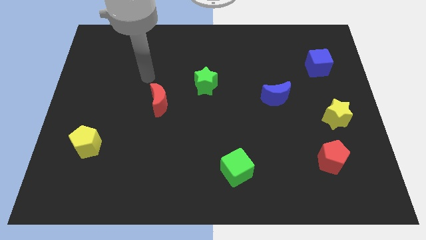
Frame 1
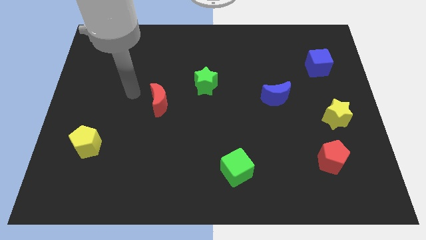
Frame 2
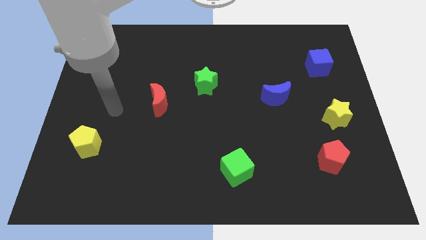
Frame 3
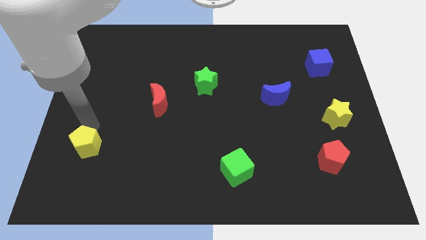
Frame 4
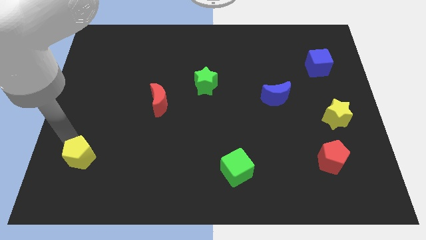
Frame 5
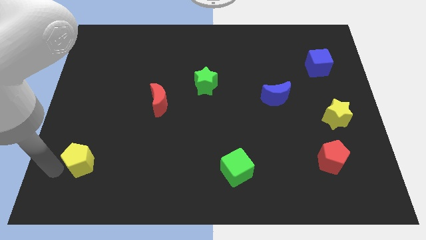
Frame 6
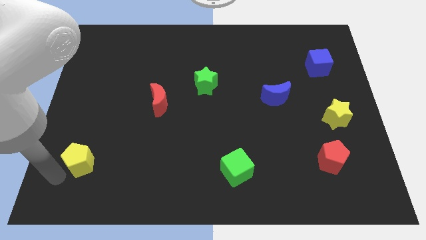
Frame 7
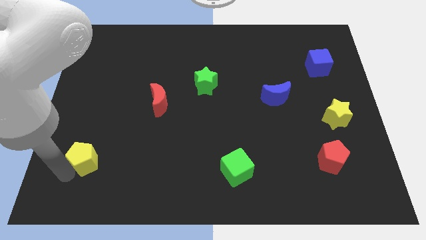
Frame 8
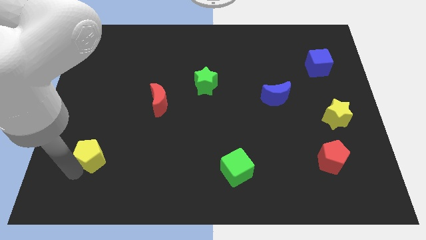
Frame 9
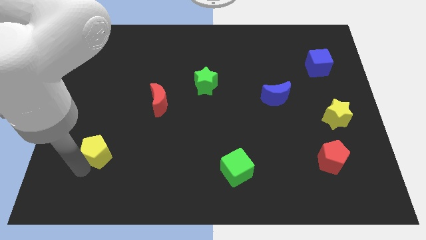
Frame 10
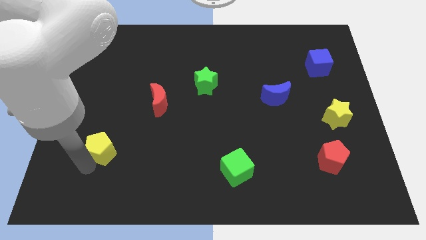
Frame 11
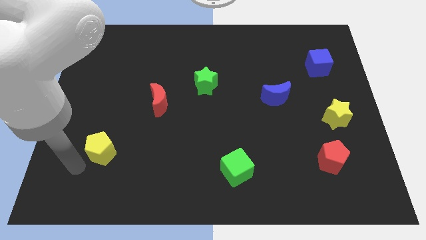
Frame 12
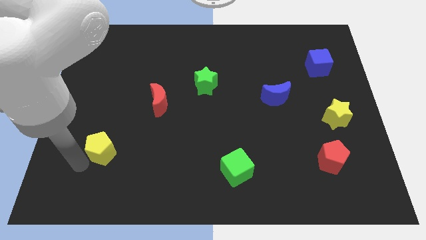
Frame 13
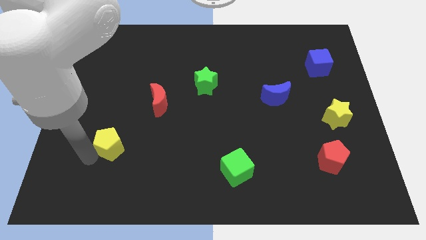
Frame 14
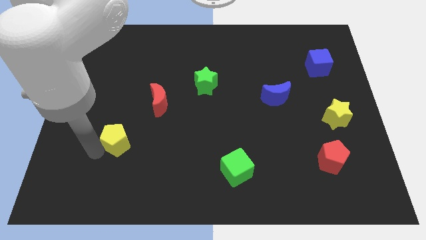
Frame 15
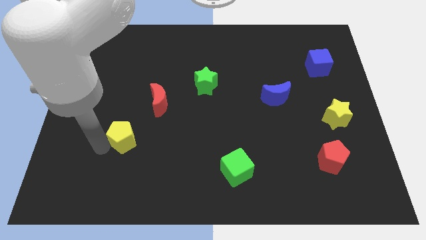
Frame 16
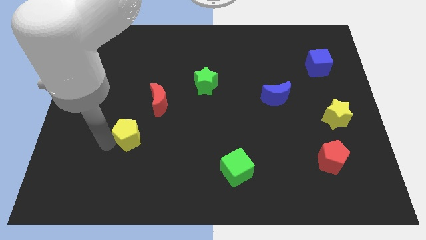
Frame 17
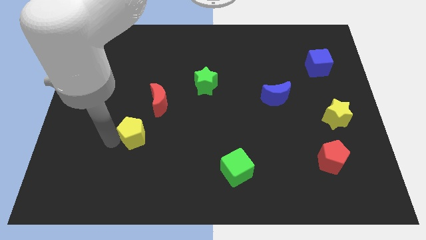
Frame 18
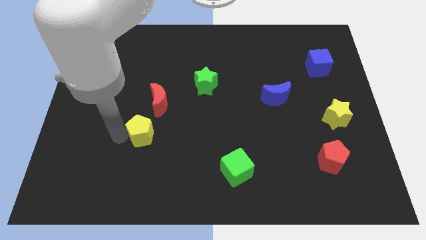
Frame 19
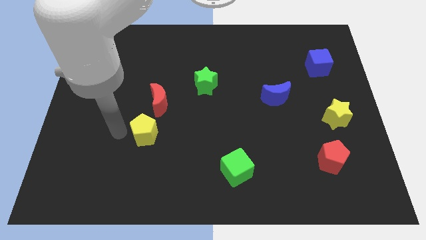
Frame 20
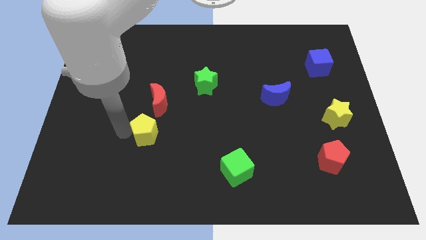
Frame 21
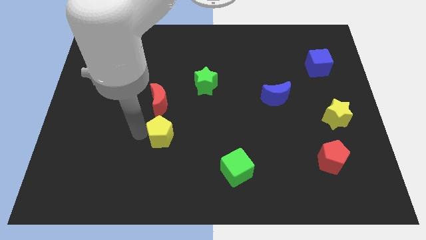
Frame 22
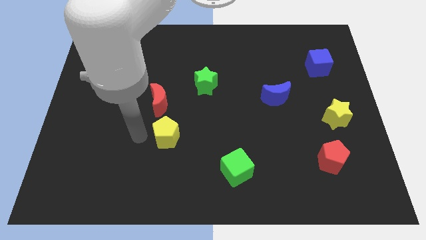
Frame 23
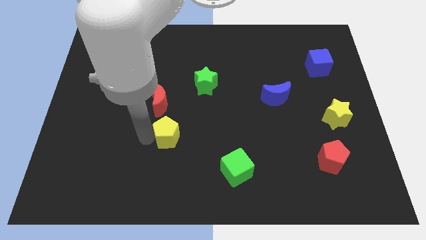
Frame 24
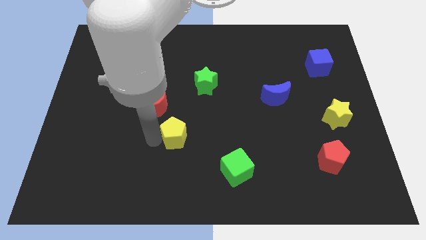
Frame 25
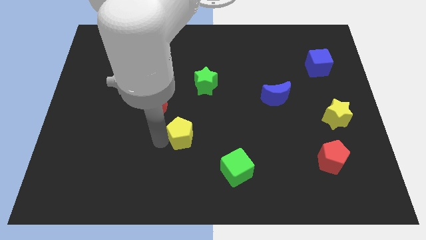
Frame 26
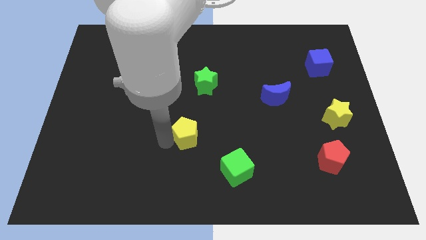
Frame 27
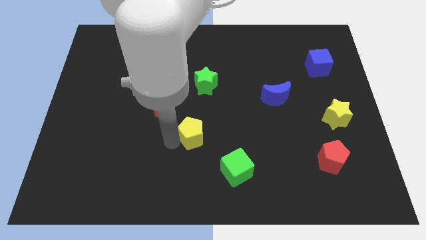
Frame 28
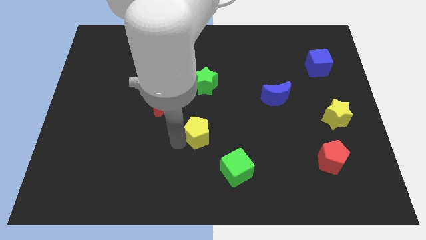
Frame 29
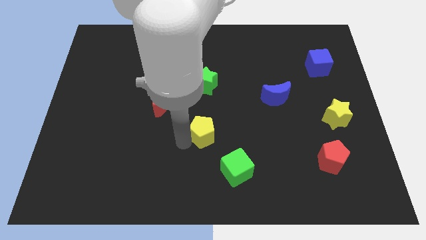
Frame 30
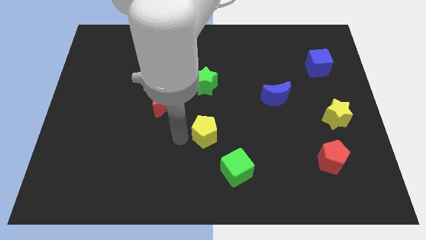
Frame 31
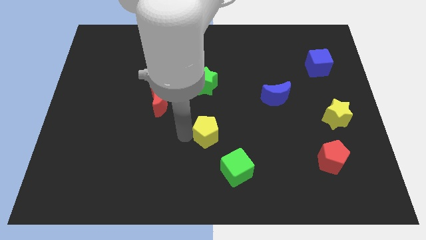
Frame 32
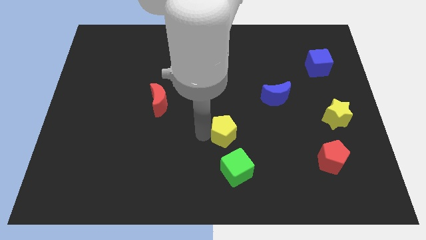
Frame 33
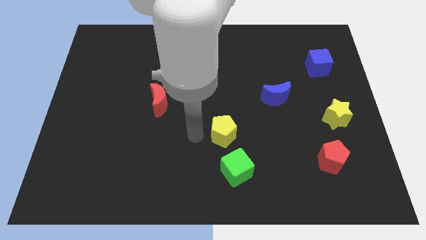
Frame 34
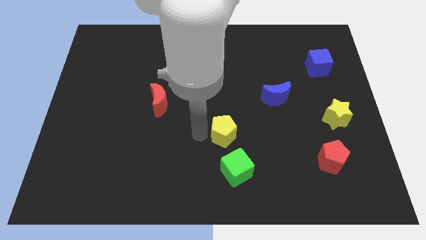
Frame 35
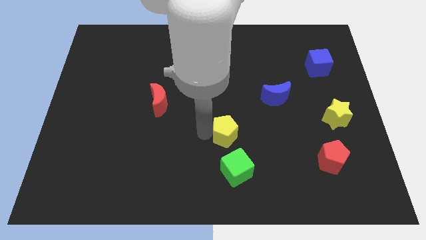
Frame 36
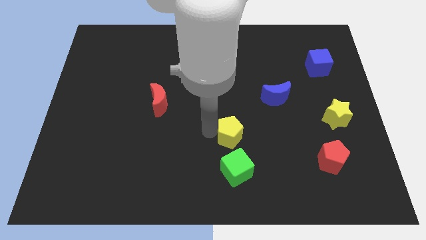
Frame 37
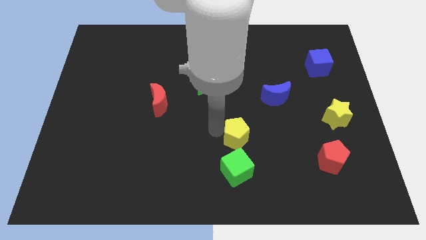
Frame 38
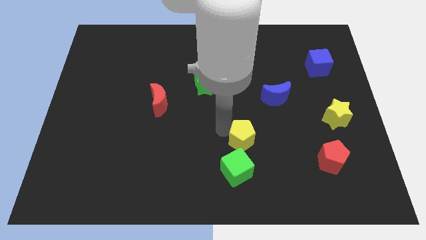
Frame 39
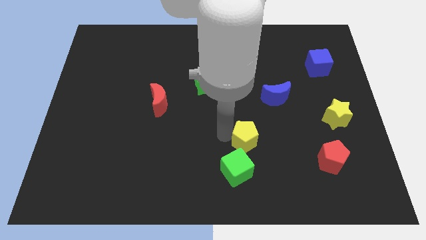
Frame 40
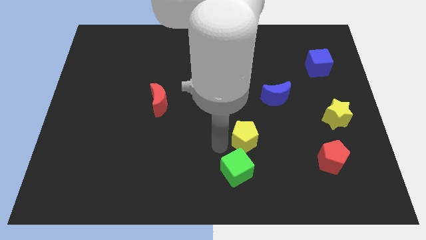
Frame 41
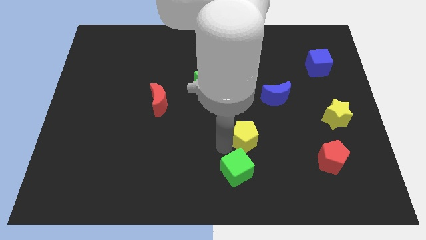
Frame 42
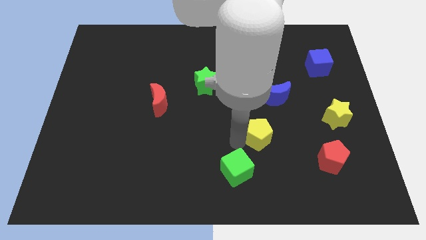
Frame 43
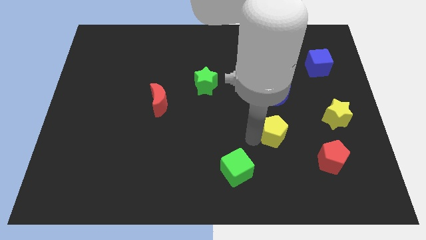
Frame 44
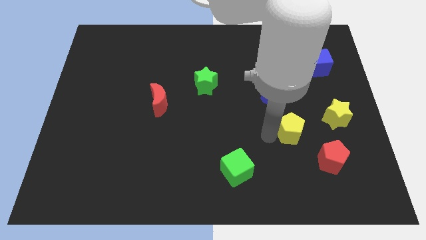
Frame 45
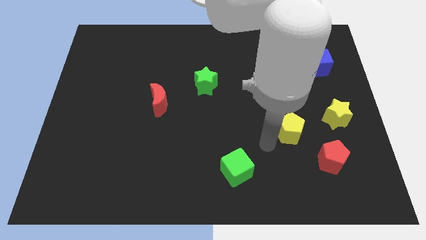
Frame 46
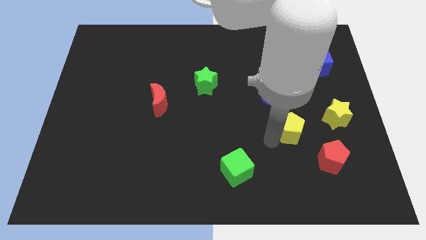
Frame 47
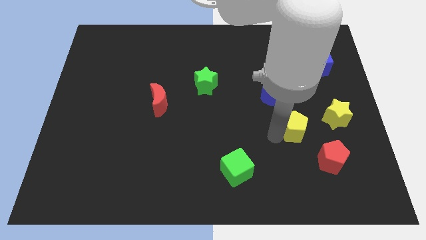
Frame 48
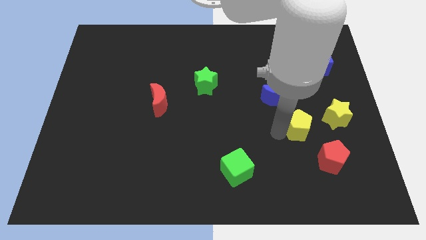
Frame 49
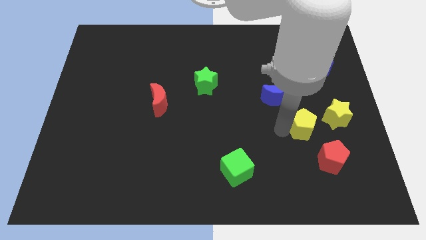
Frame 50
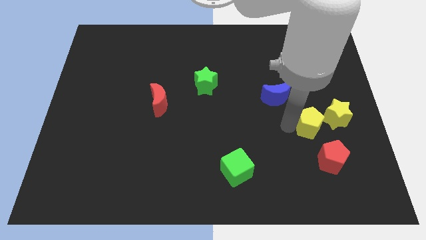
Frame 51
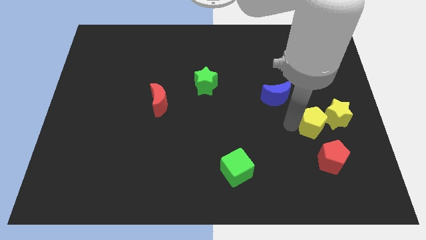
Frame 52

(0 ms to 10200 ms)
push the yellow pentagon to the yellow star

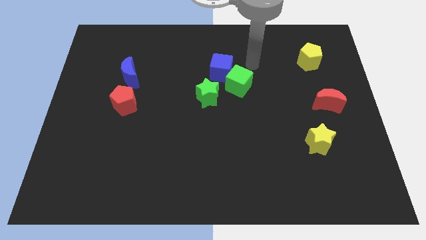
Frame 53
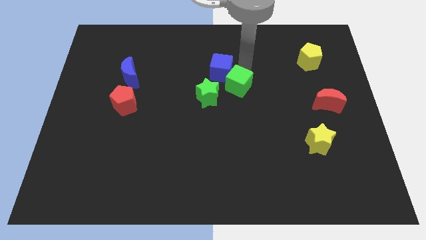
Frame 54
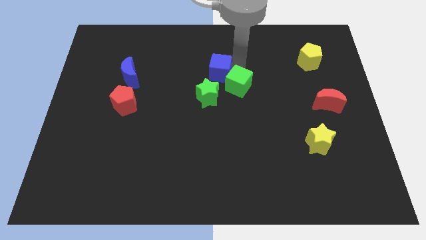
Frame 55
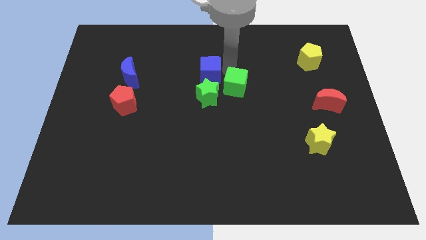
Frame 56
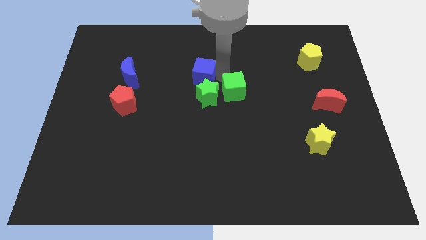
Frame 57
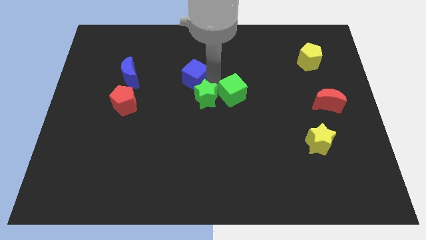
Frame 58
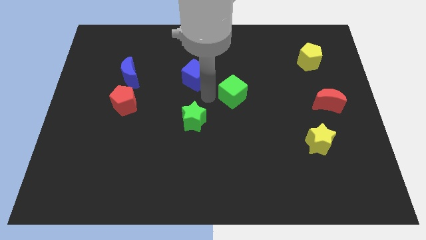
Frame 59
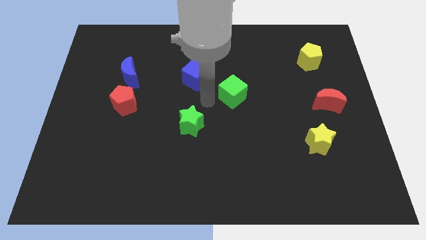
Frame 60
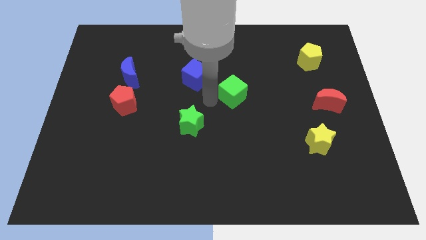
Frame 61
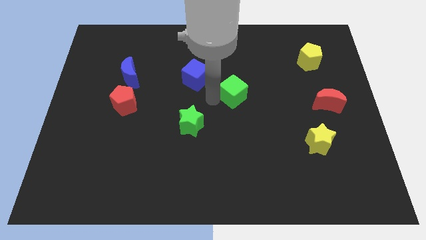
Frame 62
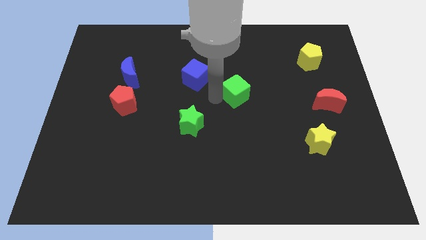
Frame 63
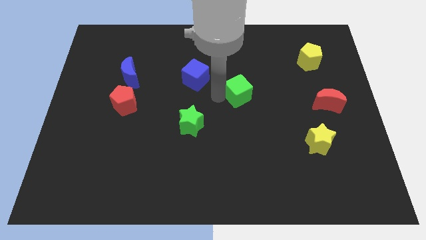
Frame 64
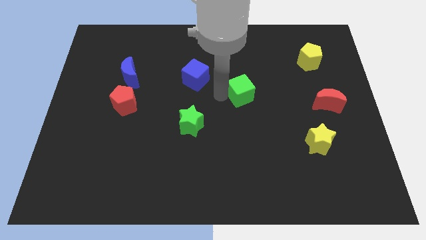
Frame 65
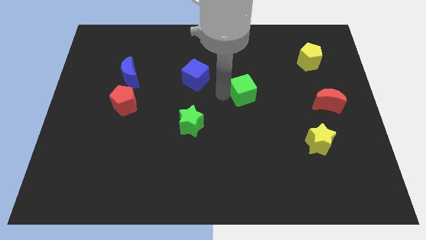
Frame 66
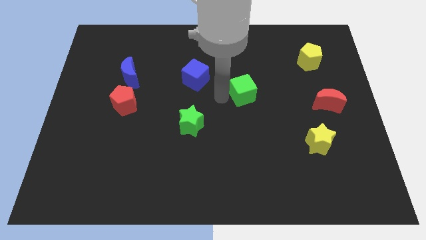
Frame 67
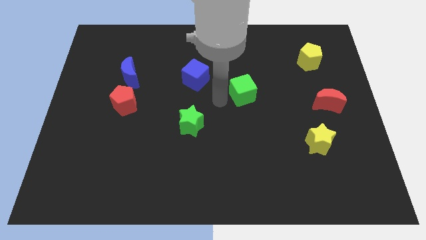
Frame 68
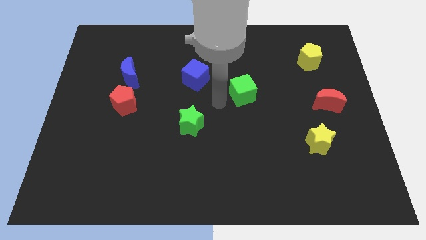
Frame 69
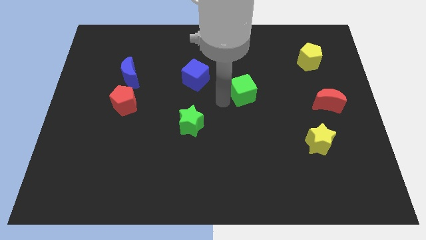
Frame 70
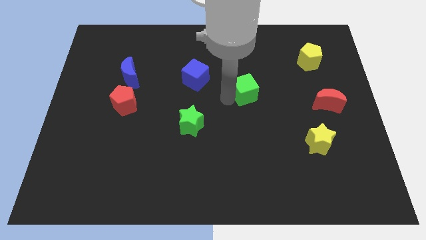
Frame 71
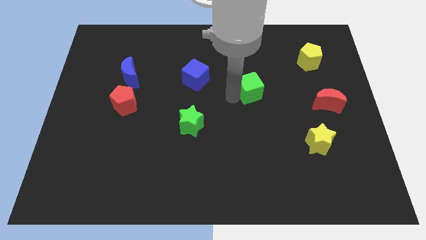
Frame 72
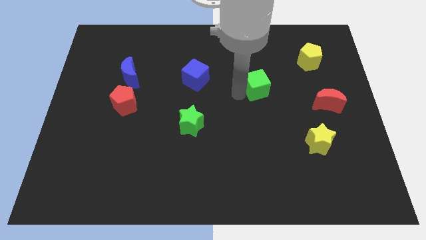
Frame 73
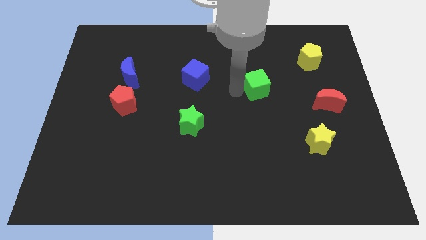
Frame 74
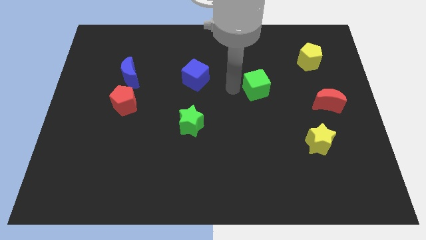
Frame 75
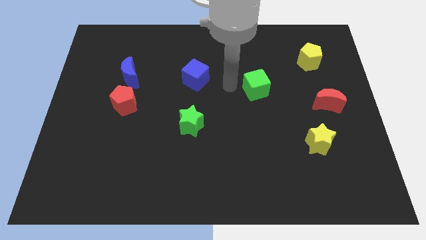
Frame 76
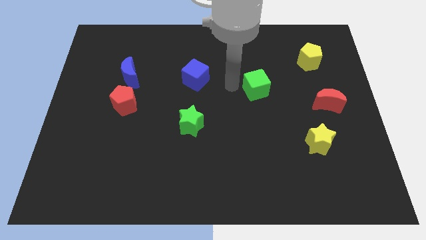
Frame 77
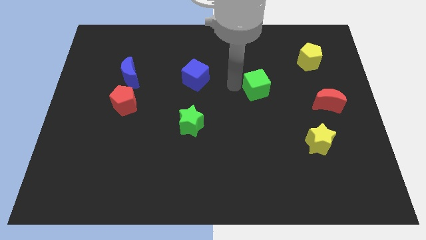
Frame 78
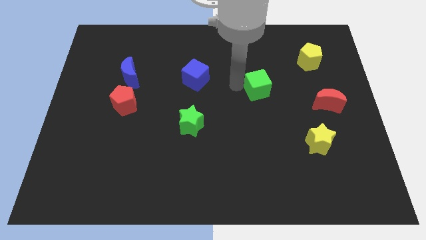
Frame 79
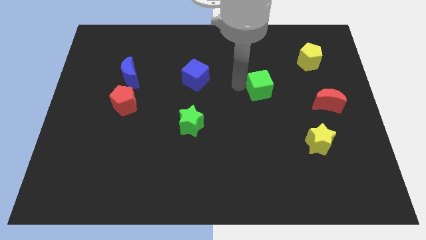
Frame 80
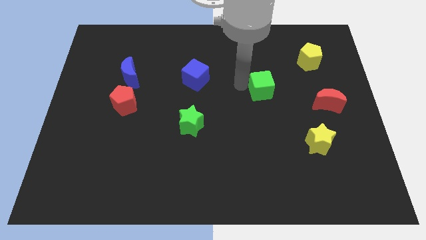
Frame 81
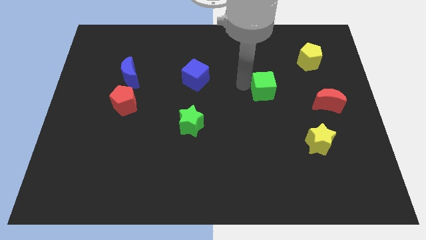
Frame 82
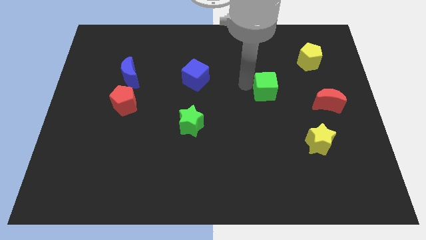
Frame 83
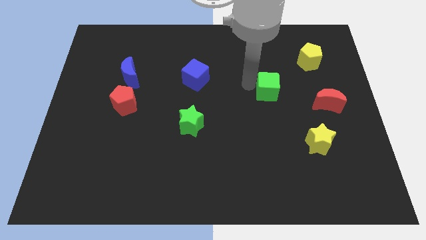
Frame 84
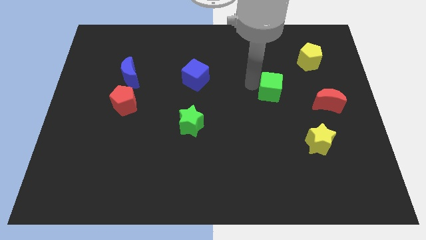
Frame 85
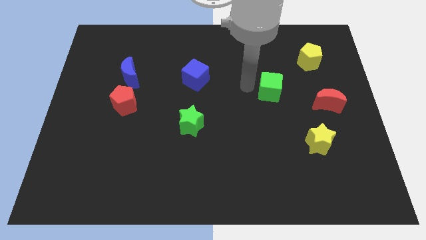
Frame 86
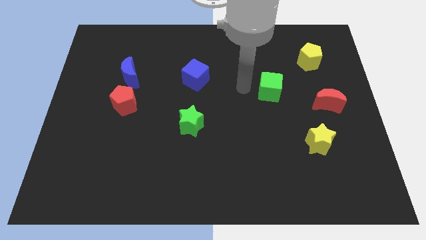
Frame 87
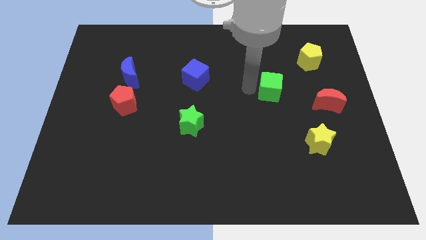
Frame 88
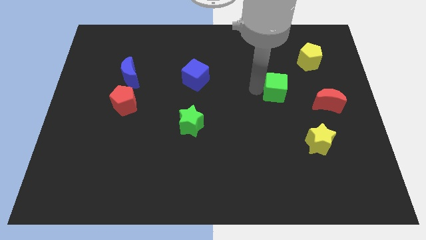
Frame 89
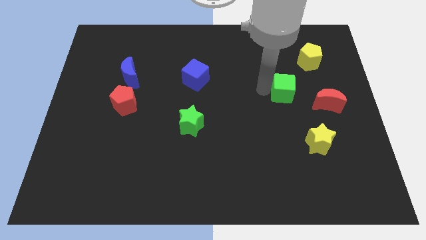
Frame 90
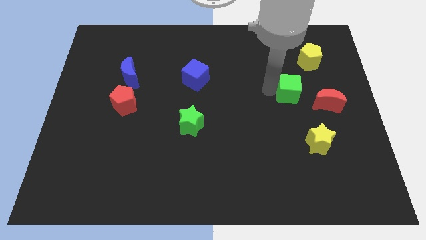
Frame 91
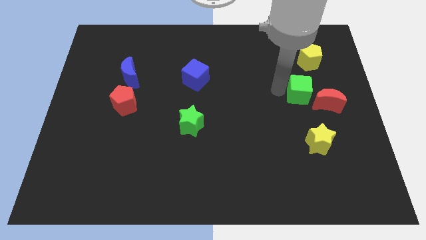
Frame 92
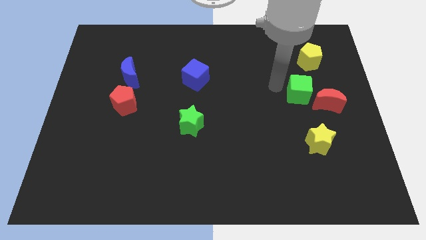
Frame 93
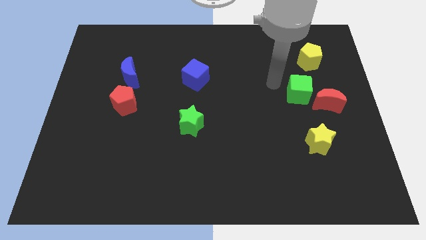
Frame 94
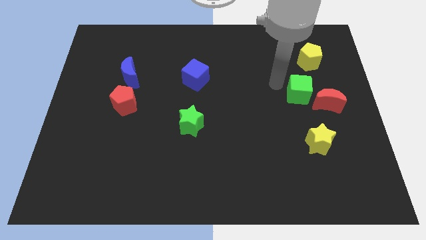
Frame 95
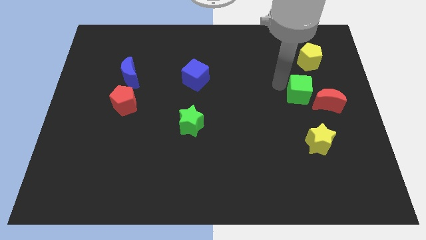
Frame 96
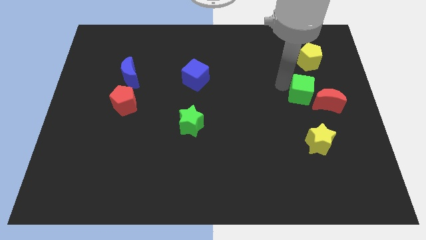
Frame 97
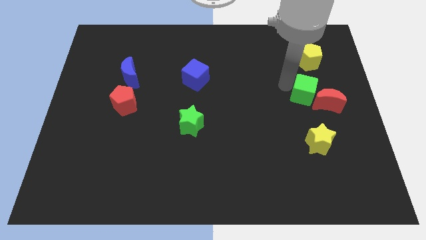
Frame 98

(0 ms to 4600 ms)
put the green cube to the red moon
